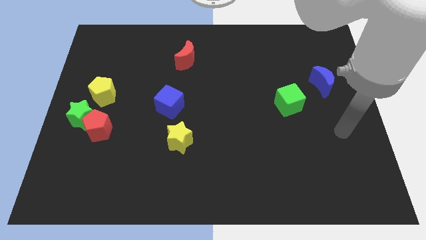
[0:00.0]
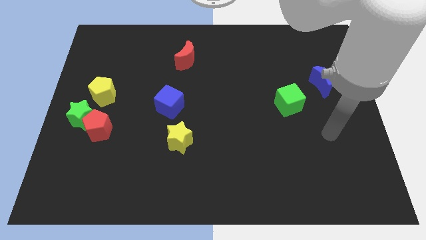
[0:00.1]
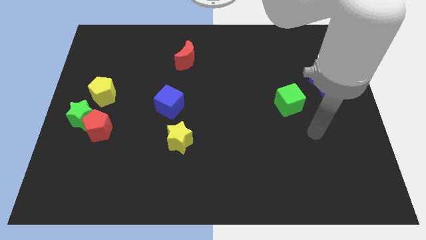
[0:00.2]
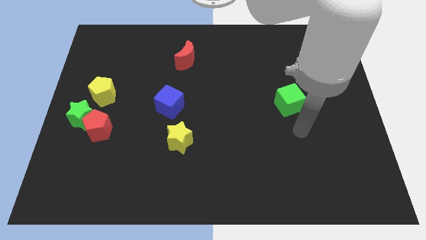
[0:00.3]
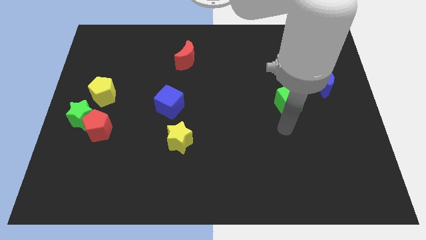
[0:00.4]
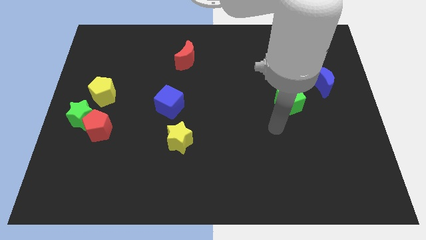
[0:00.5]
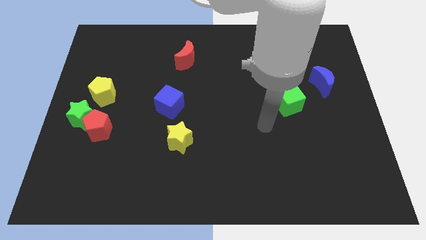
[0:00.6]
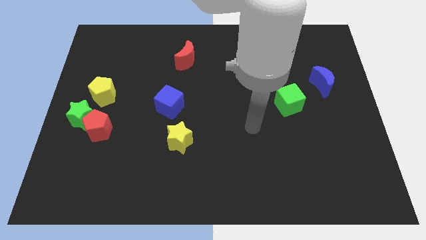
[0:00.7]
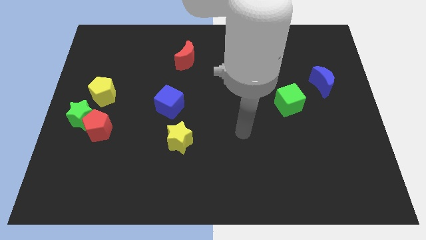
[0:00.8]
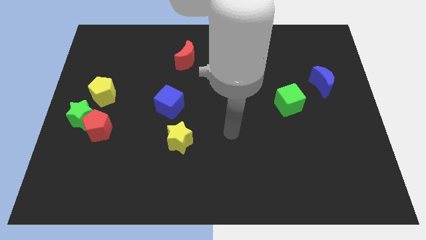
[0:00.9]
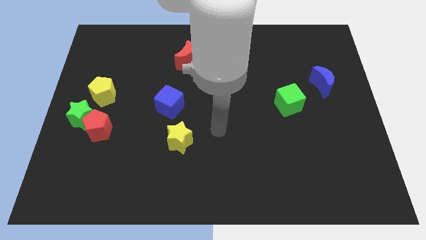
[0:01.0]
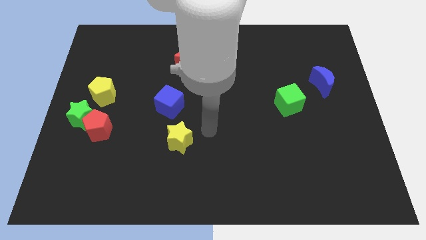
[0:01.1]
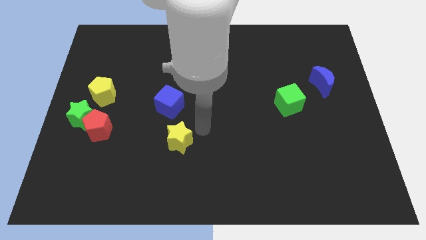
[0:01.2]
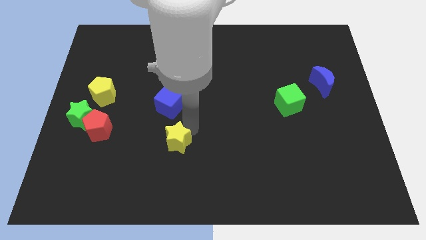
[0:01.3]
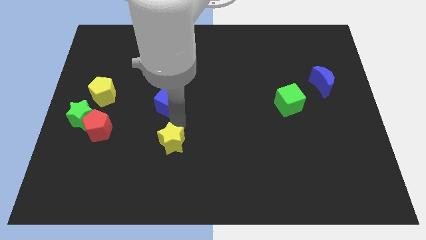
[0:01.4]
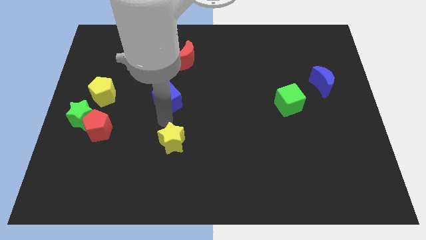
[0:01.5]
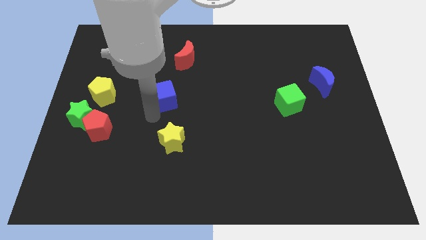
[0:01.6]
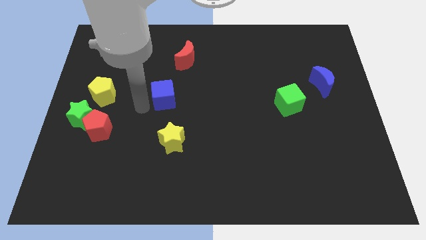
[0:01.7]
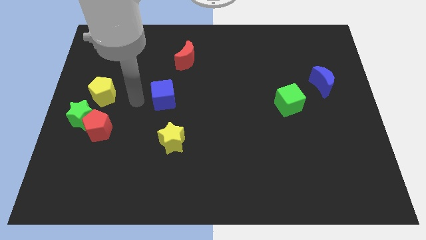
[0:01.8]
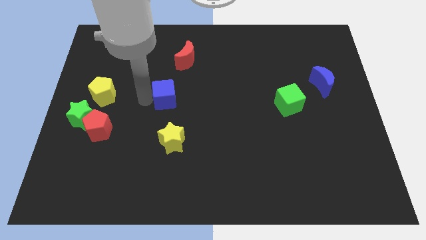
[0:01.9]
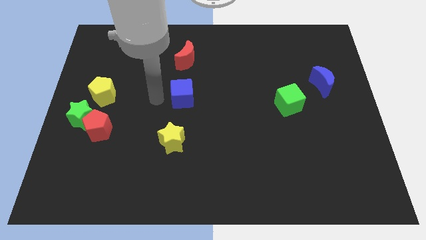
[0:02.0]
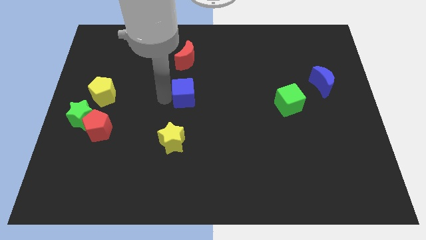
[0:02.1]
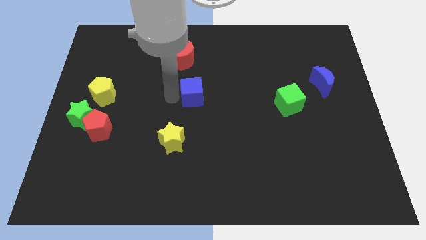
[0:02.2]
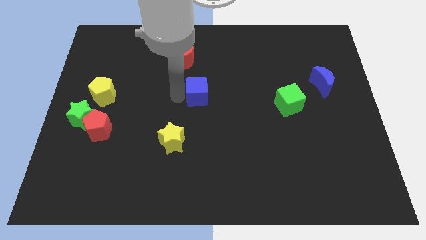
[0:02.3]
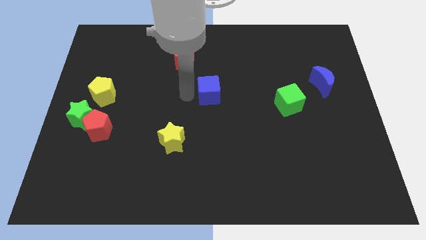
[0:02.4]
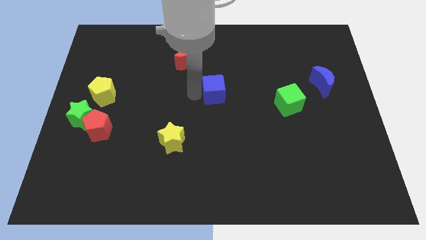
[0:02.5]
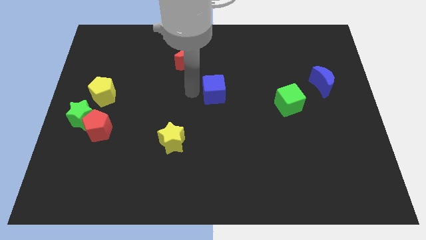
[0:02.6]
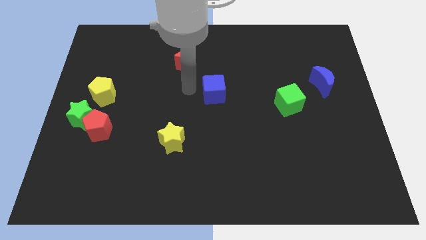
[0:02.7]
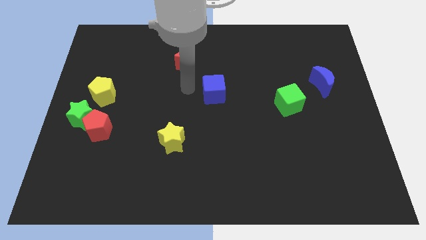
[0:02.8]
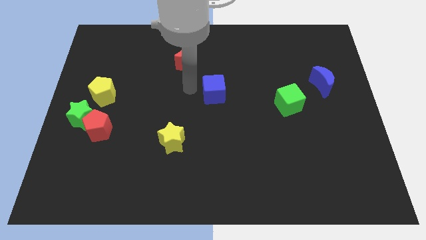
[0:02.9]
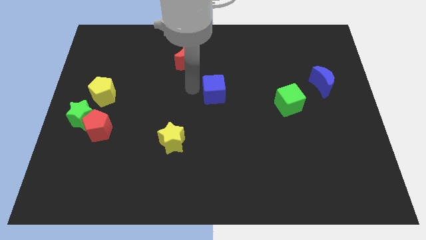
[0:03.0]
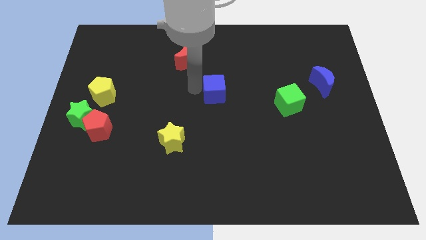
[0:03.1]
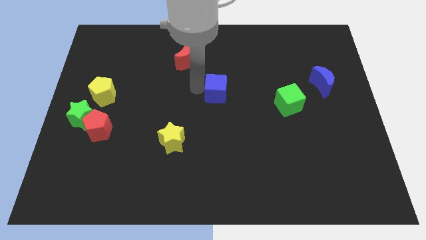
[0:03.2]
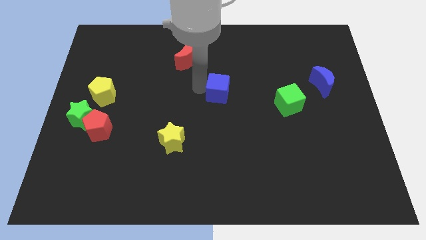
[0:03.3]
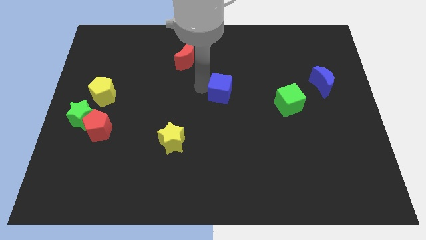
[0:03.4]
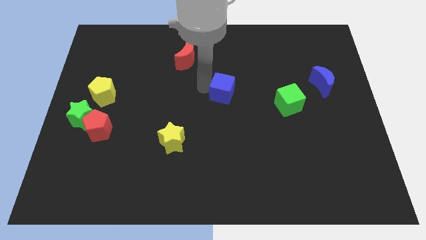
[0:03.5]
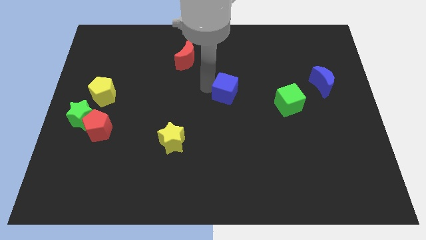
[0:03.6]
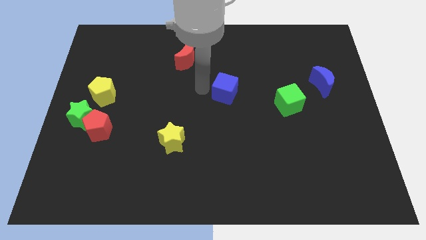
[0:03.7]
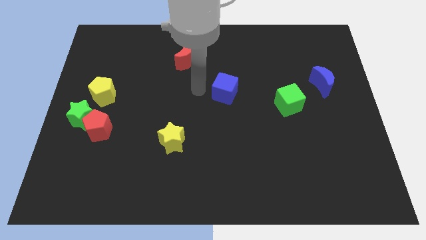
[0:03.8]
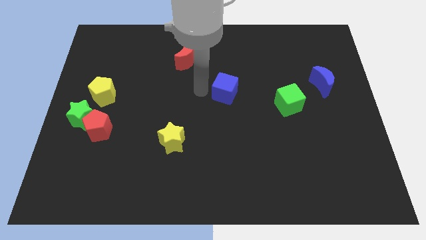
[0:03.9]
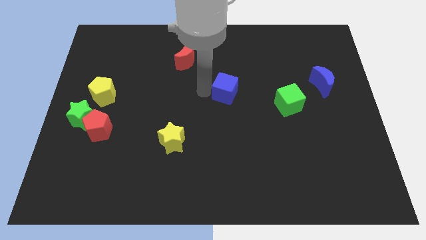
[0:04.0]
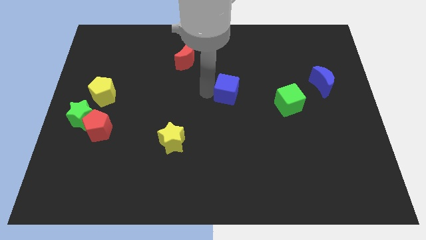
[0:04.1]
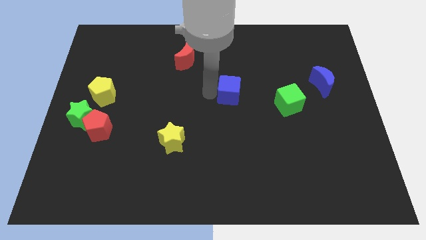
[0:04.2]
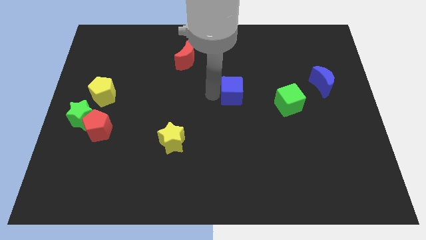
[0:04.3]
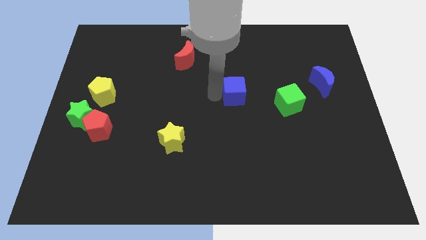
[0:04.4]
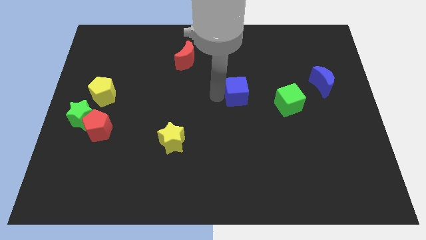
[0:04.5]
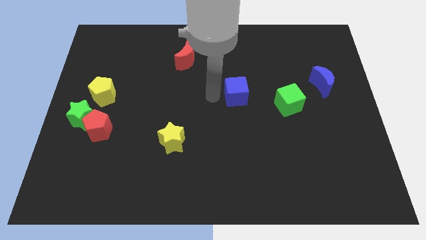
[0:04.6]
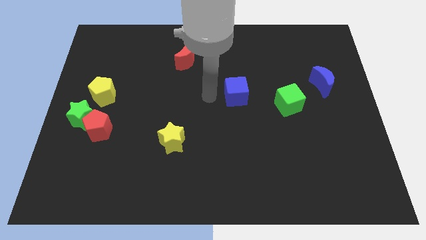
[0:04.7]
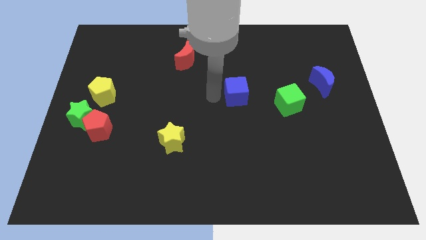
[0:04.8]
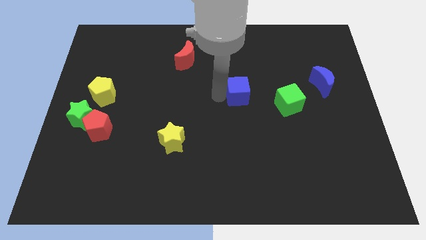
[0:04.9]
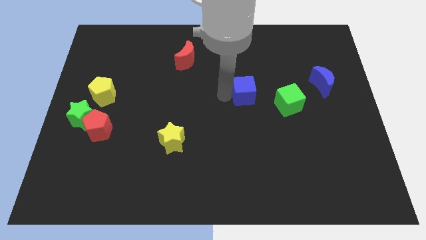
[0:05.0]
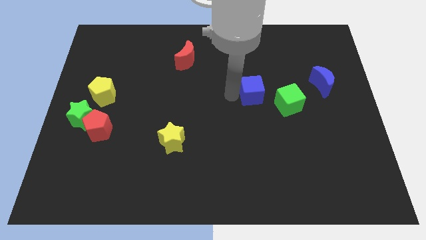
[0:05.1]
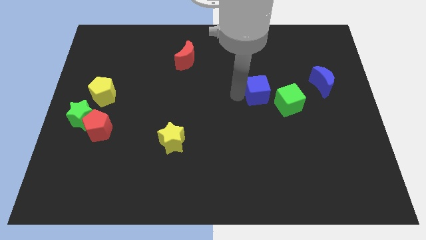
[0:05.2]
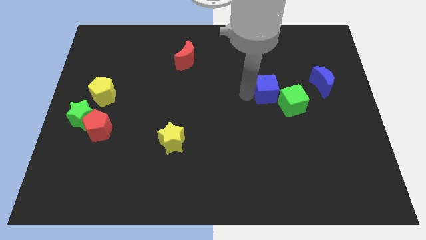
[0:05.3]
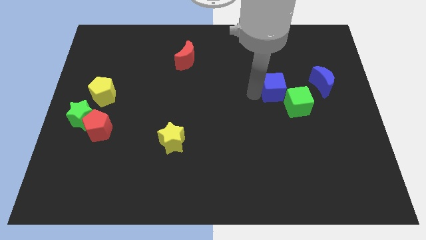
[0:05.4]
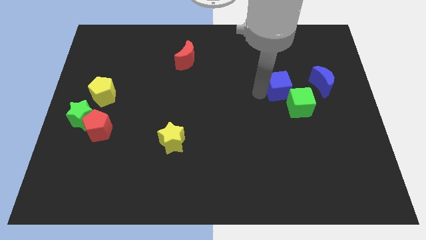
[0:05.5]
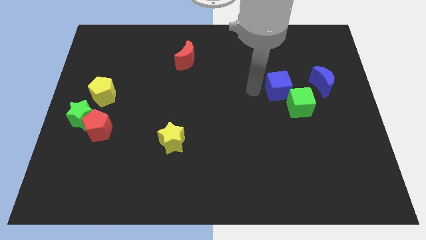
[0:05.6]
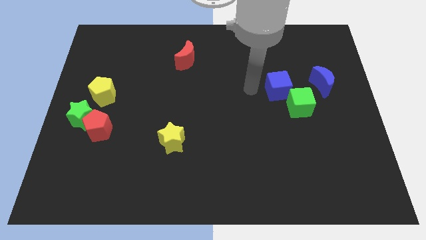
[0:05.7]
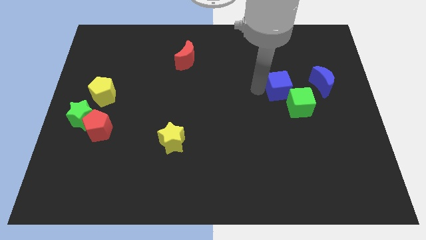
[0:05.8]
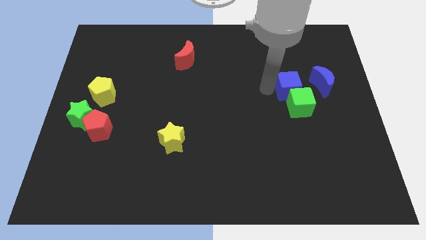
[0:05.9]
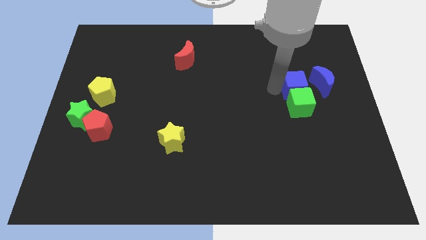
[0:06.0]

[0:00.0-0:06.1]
slide the blue cube to the top right of the green cube
